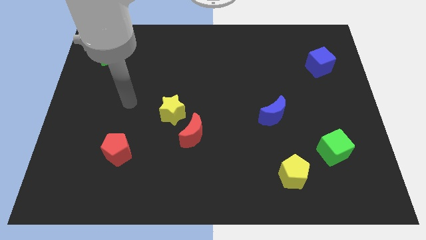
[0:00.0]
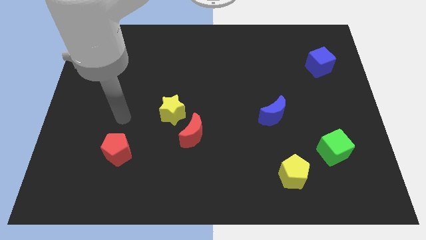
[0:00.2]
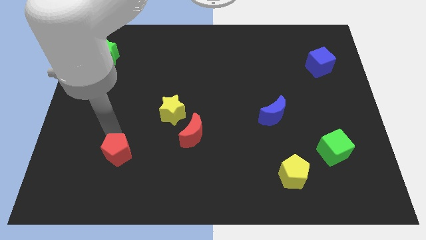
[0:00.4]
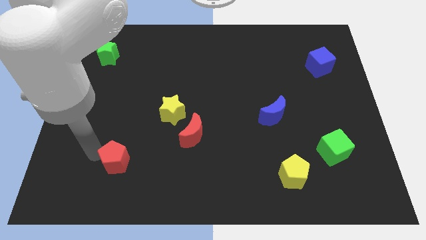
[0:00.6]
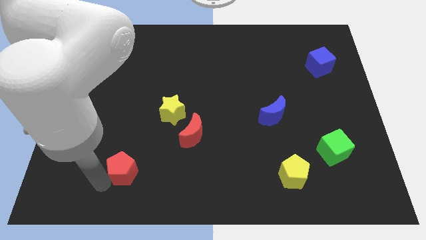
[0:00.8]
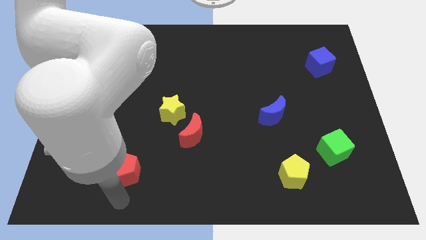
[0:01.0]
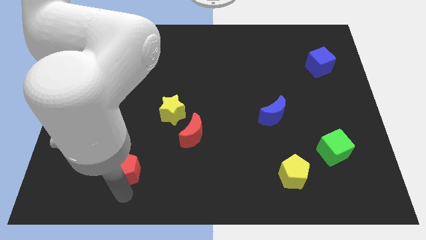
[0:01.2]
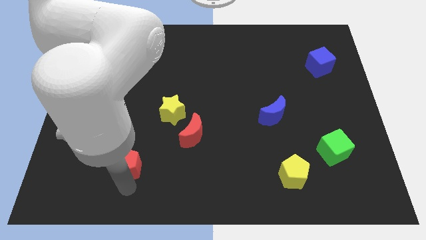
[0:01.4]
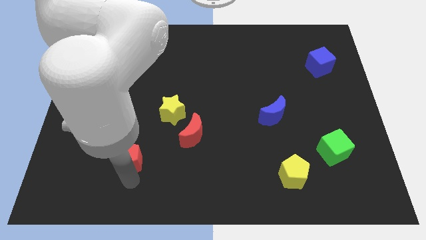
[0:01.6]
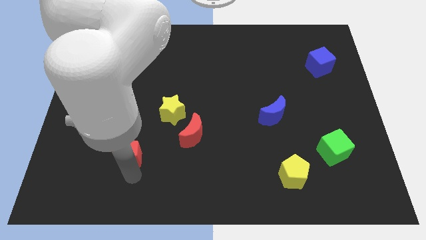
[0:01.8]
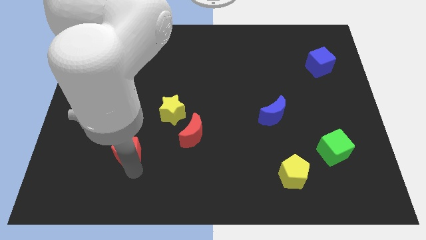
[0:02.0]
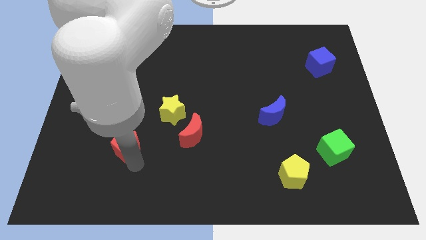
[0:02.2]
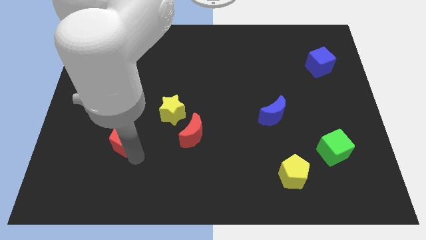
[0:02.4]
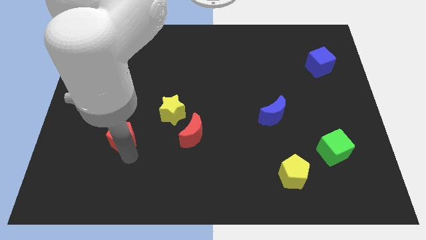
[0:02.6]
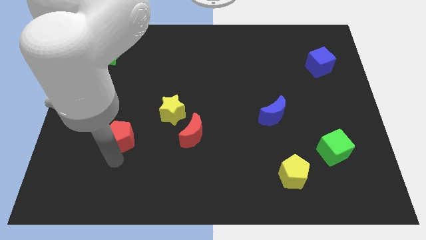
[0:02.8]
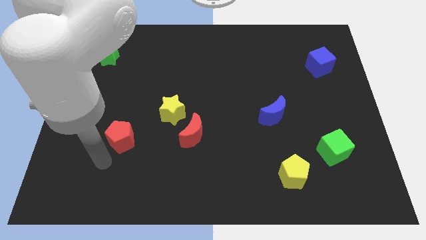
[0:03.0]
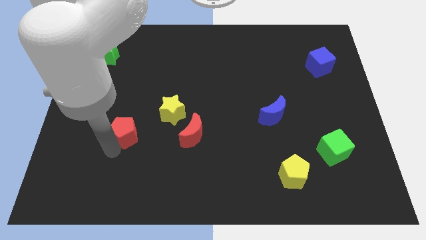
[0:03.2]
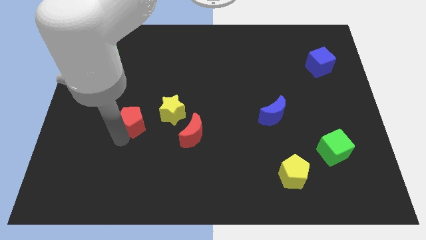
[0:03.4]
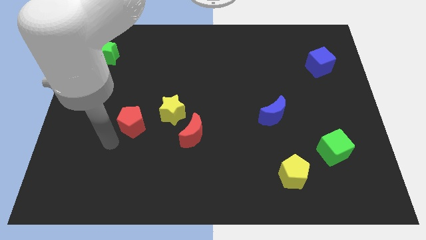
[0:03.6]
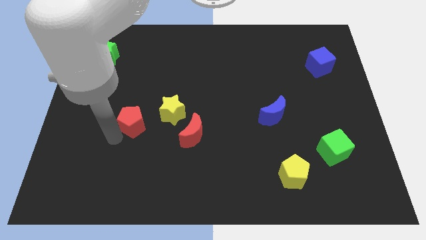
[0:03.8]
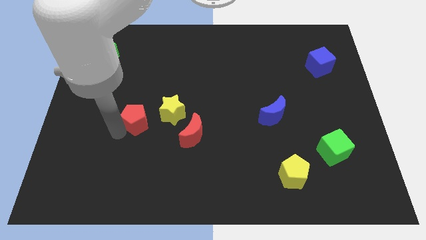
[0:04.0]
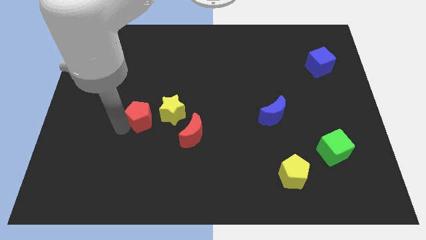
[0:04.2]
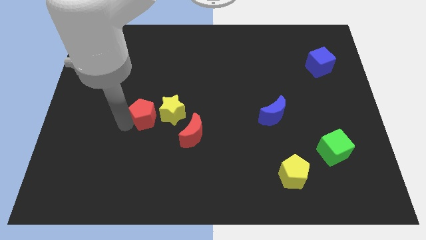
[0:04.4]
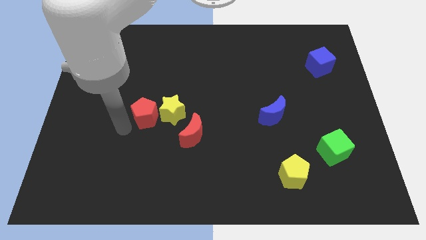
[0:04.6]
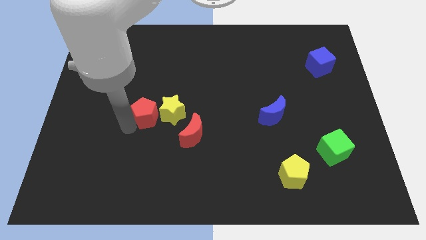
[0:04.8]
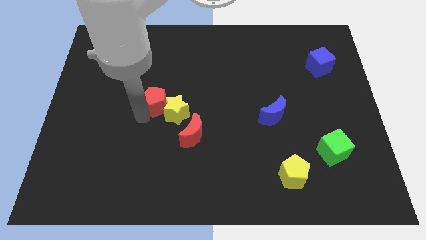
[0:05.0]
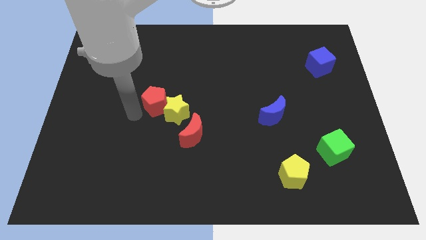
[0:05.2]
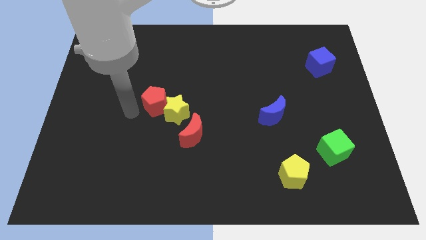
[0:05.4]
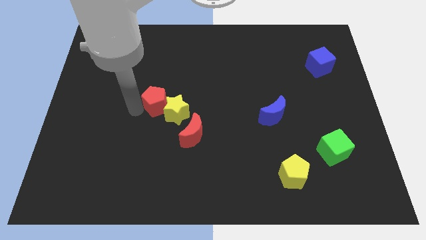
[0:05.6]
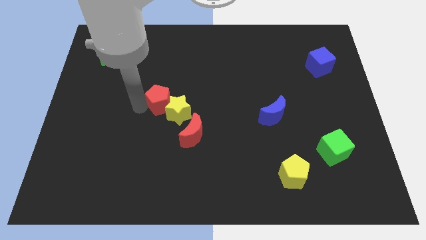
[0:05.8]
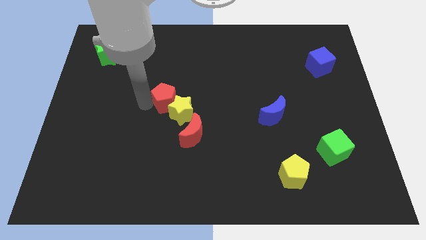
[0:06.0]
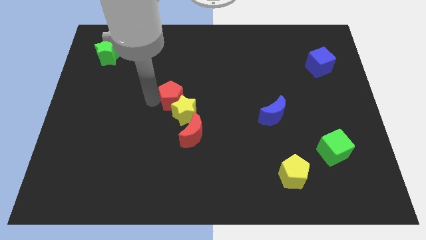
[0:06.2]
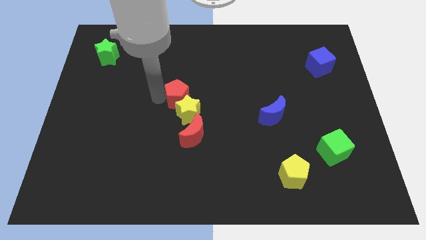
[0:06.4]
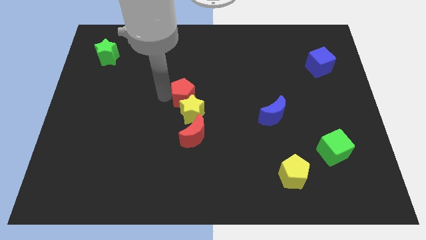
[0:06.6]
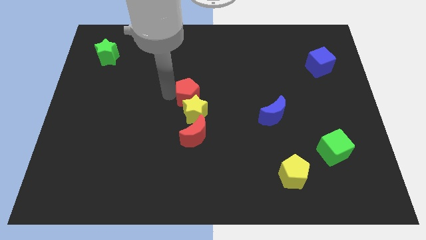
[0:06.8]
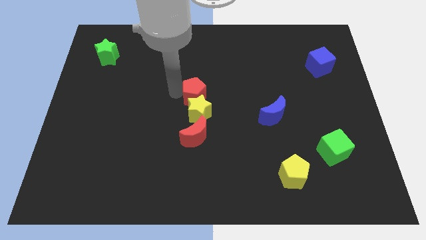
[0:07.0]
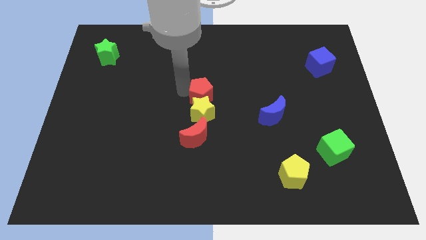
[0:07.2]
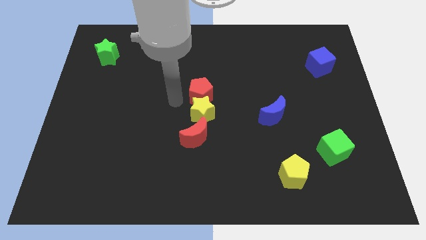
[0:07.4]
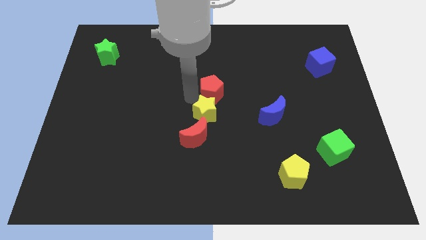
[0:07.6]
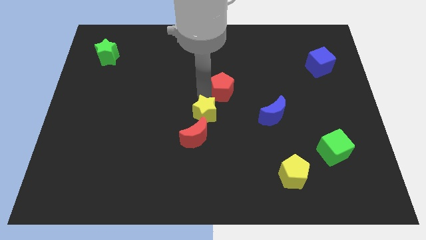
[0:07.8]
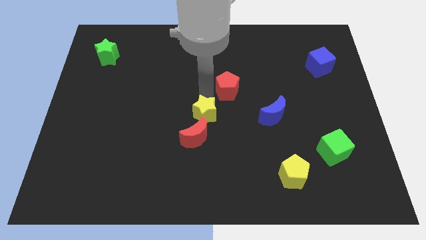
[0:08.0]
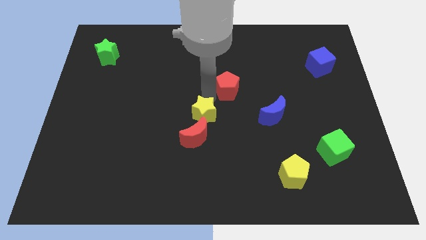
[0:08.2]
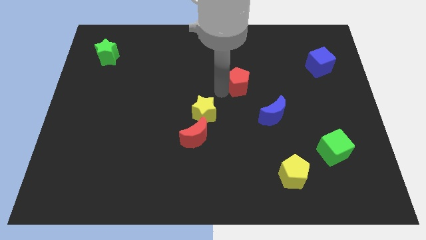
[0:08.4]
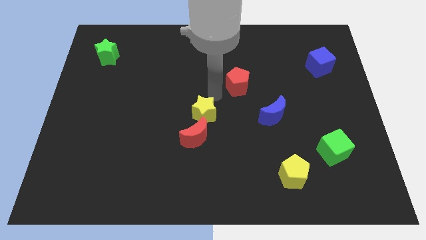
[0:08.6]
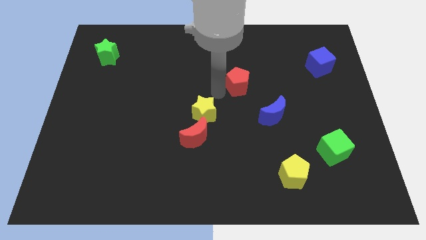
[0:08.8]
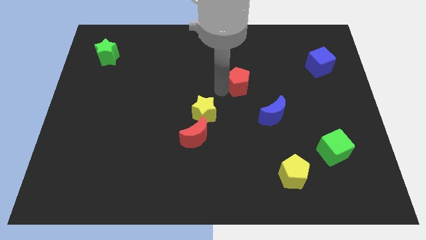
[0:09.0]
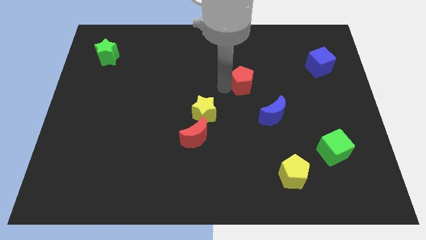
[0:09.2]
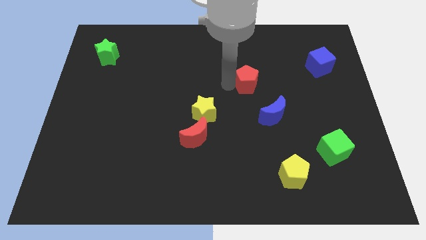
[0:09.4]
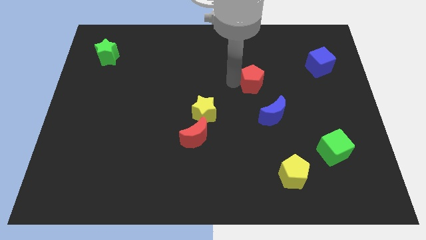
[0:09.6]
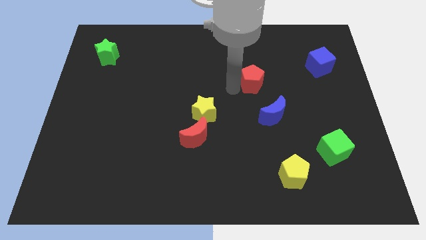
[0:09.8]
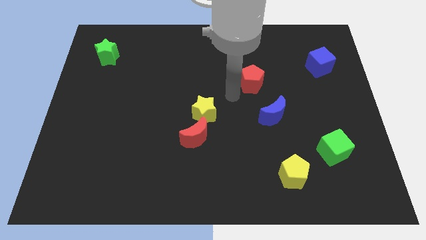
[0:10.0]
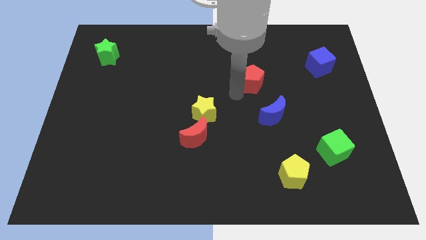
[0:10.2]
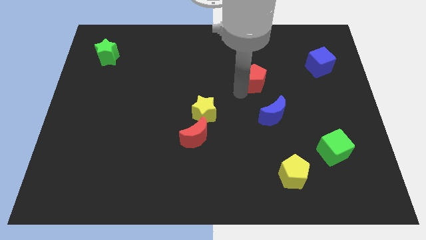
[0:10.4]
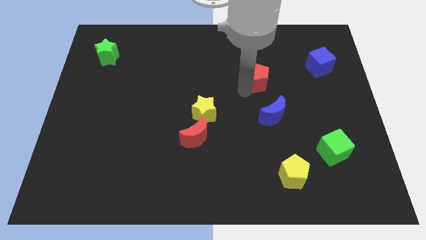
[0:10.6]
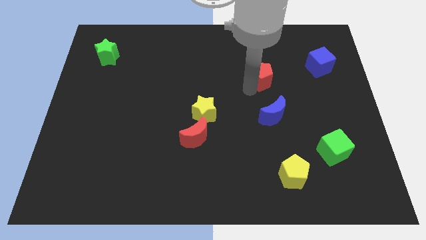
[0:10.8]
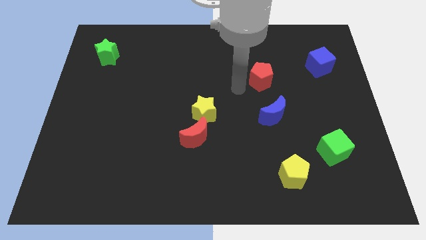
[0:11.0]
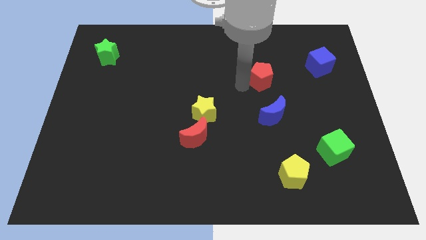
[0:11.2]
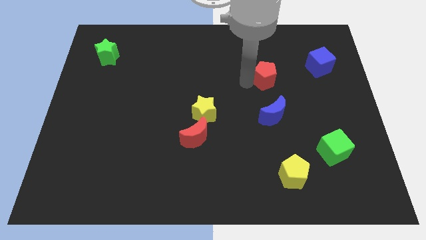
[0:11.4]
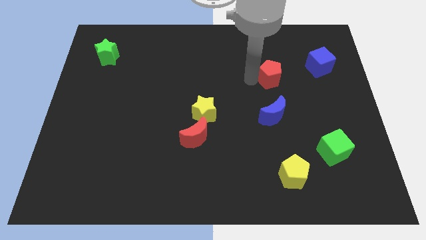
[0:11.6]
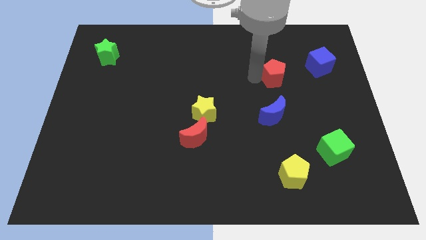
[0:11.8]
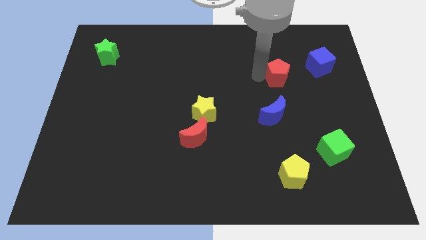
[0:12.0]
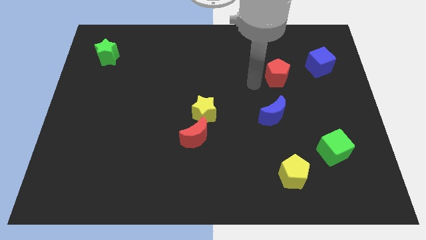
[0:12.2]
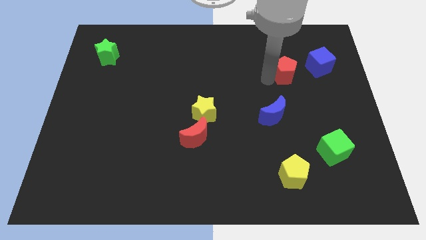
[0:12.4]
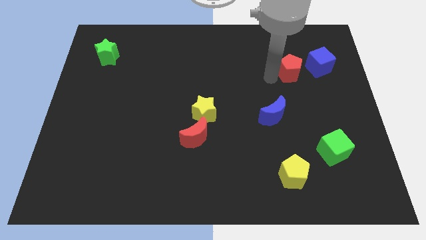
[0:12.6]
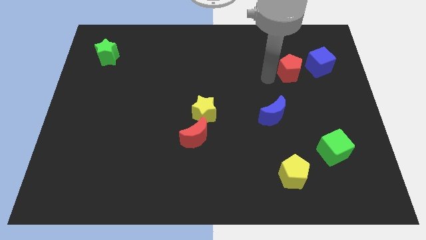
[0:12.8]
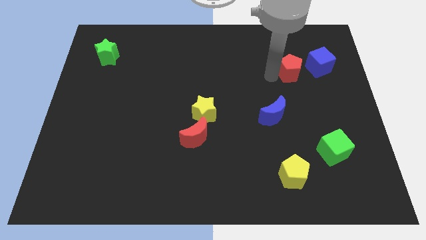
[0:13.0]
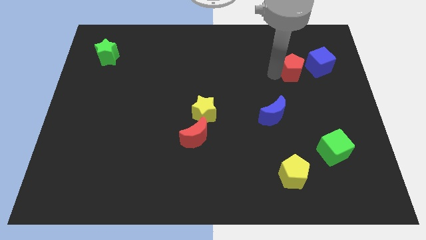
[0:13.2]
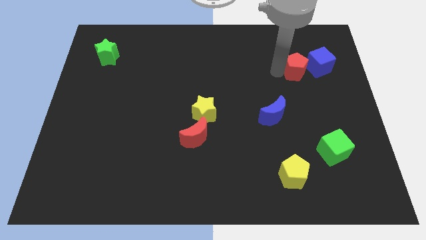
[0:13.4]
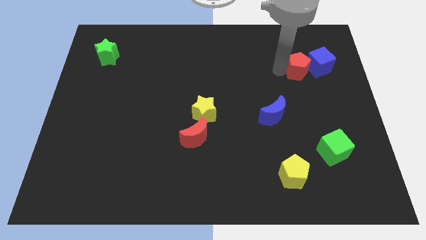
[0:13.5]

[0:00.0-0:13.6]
put the red pentagon to the blue cube

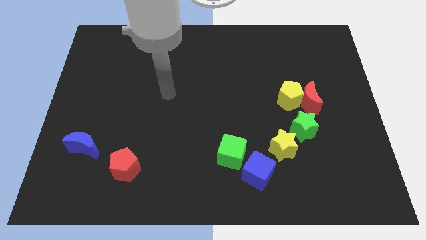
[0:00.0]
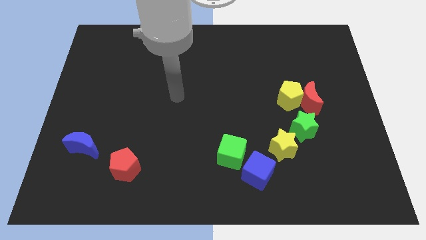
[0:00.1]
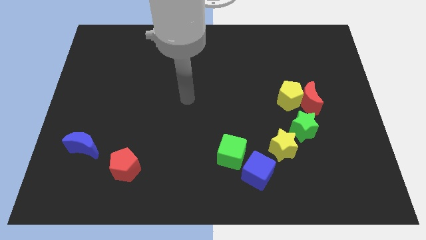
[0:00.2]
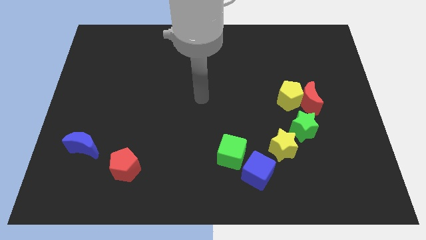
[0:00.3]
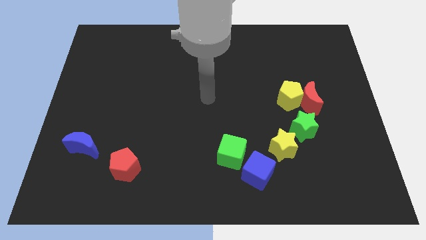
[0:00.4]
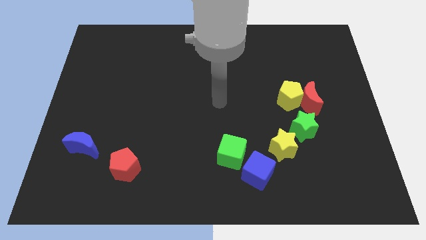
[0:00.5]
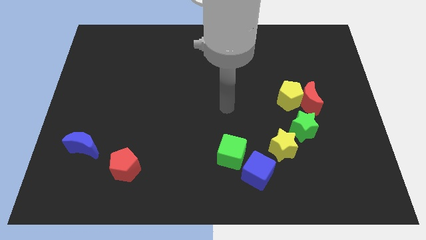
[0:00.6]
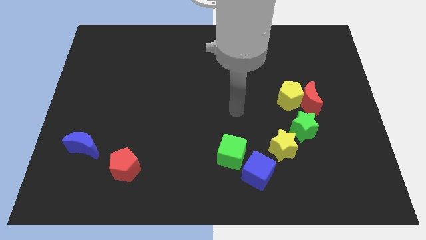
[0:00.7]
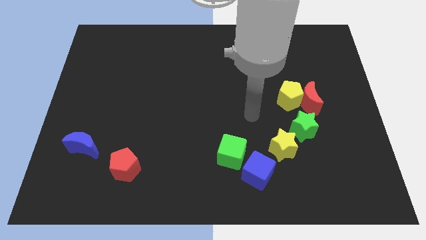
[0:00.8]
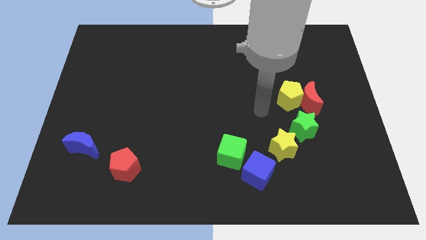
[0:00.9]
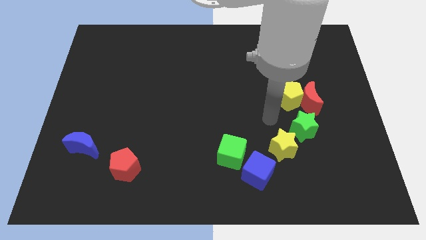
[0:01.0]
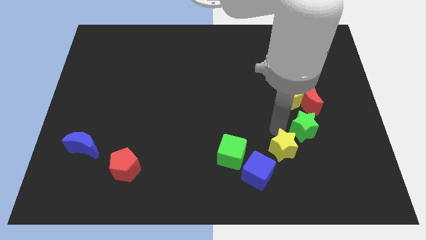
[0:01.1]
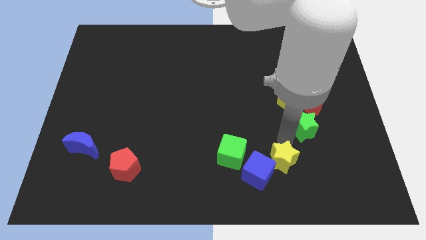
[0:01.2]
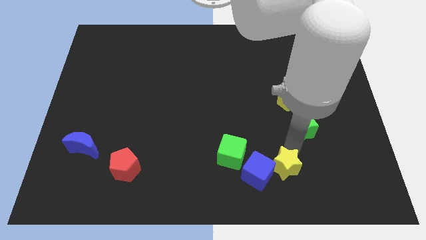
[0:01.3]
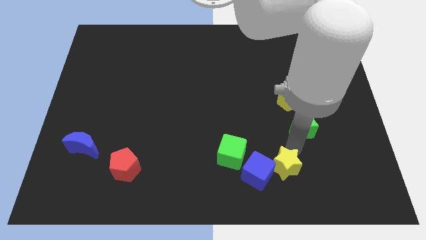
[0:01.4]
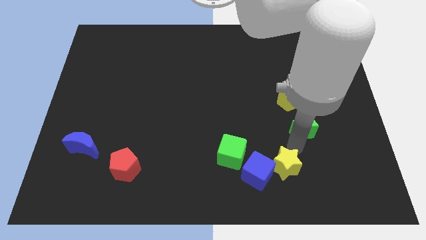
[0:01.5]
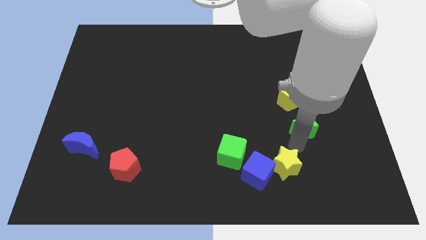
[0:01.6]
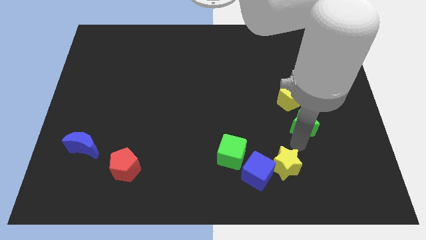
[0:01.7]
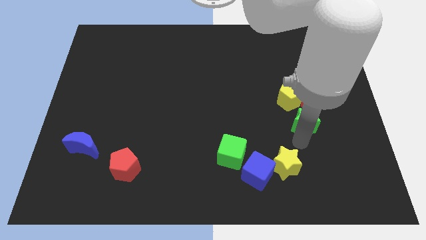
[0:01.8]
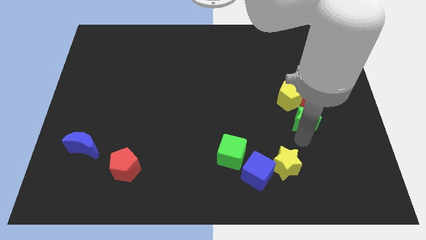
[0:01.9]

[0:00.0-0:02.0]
put the green star to the red moon
